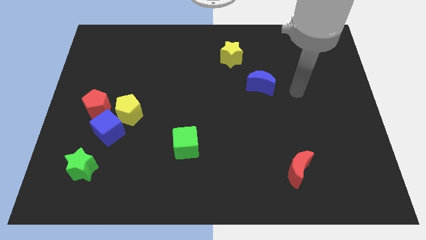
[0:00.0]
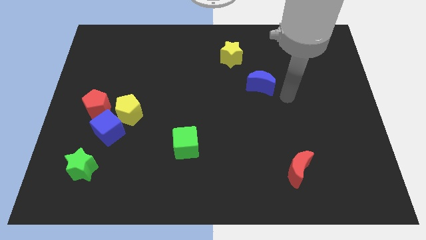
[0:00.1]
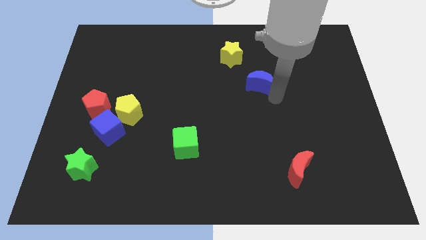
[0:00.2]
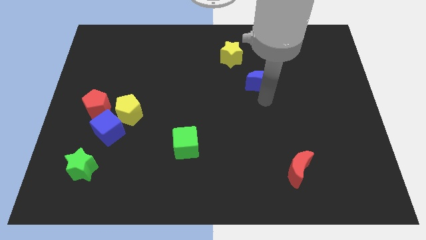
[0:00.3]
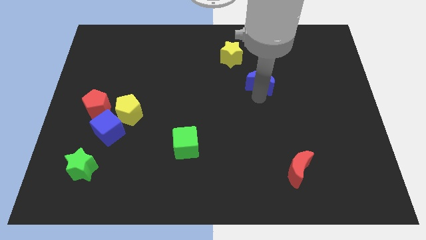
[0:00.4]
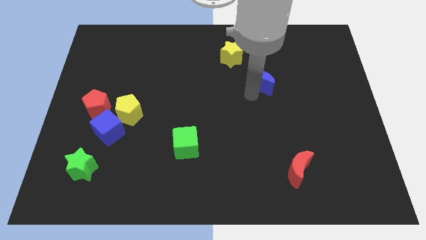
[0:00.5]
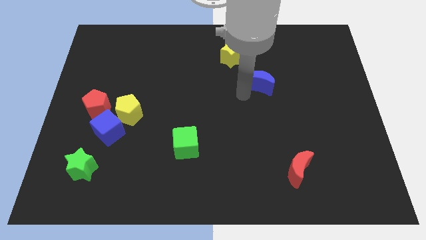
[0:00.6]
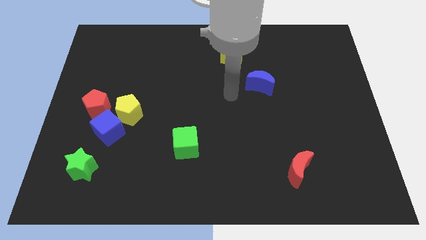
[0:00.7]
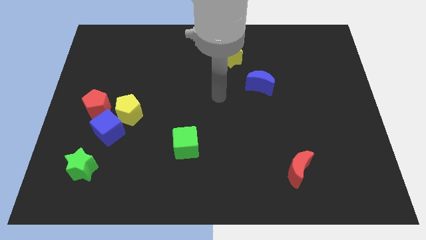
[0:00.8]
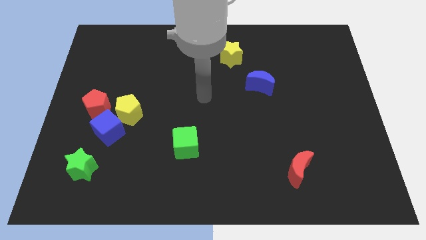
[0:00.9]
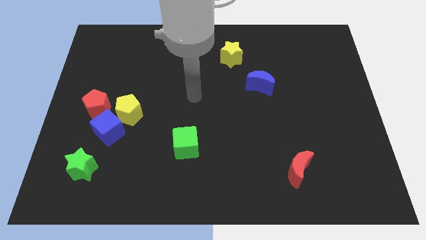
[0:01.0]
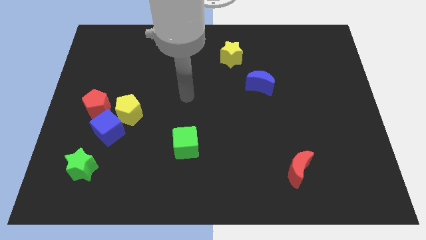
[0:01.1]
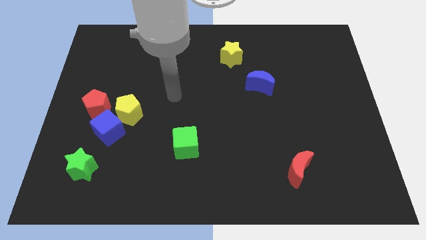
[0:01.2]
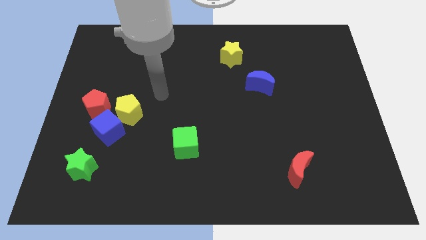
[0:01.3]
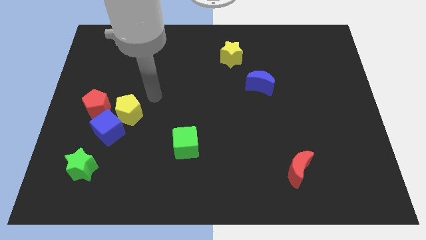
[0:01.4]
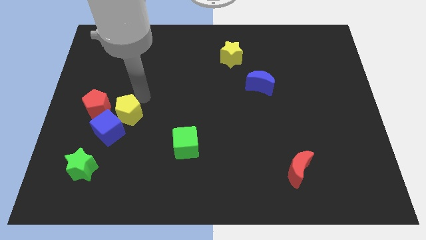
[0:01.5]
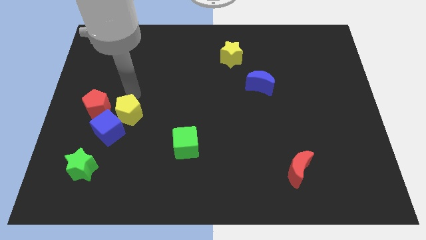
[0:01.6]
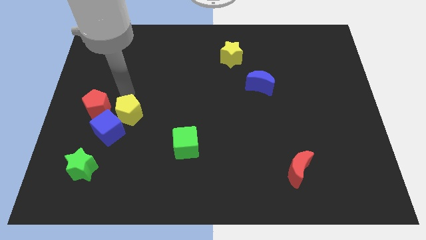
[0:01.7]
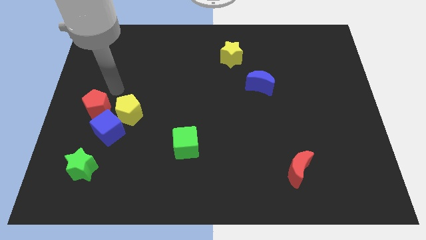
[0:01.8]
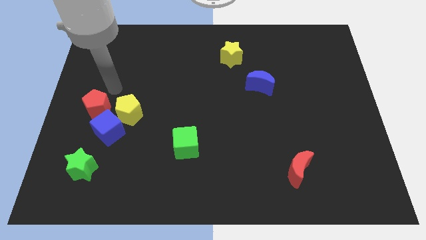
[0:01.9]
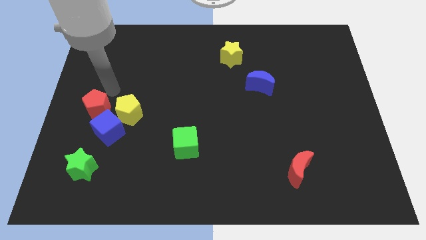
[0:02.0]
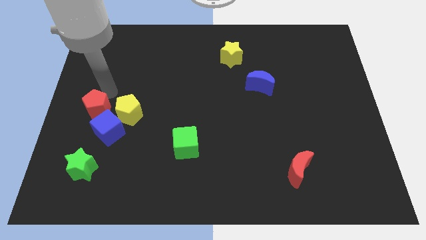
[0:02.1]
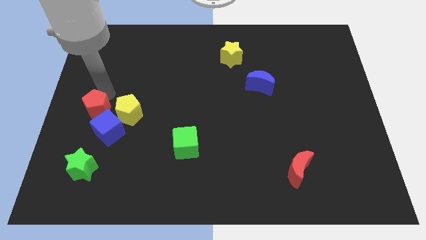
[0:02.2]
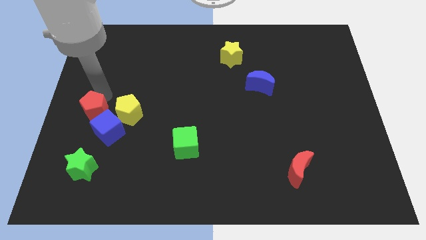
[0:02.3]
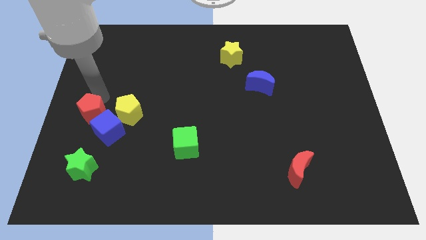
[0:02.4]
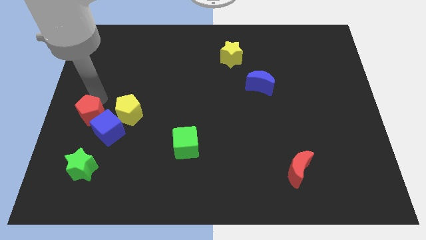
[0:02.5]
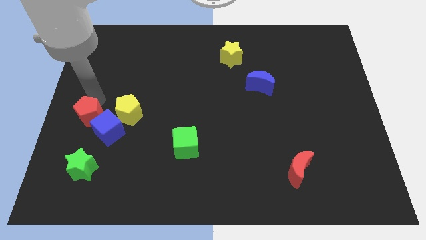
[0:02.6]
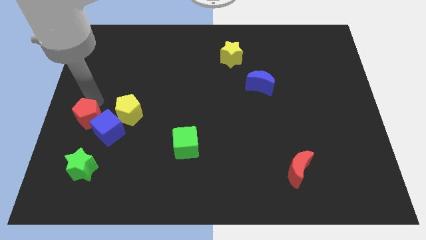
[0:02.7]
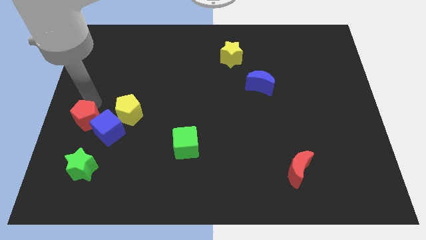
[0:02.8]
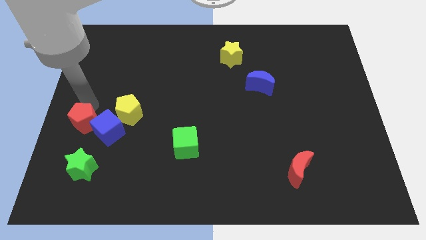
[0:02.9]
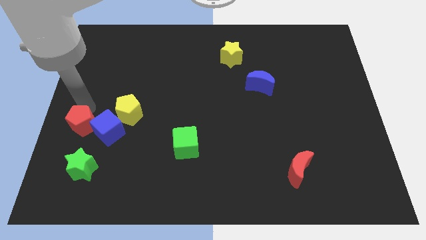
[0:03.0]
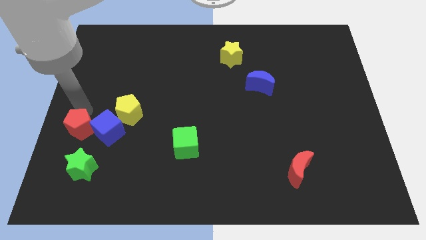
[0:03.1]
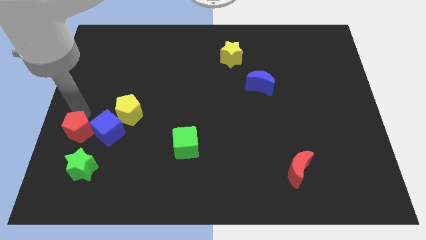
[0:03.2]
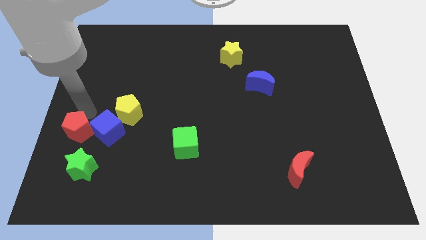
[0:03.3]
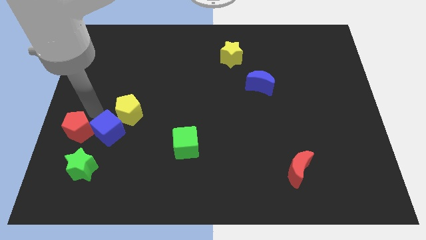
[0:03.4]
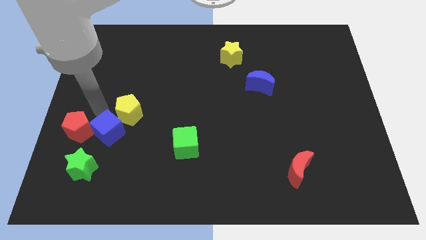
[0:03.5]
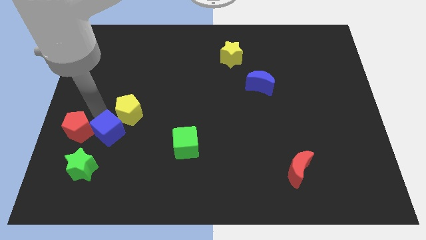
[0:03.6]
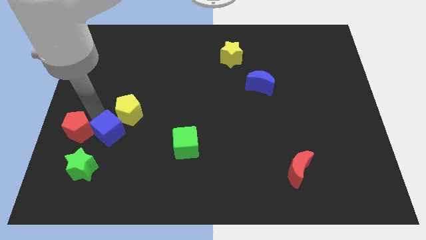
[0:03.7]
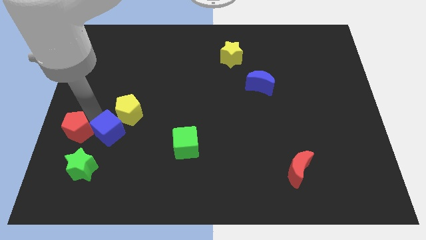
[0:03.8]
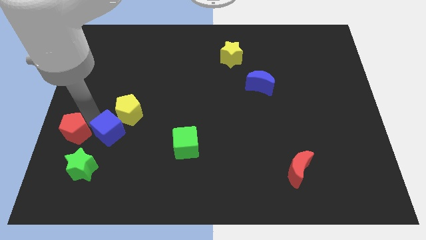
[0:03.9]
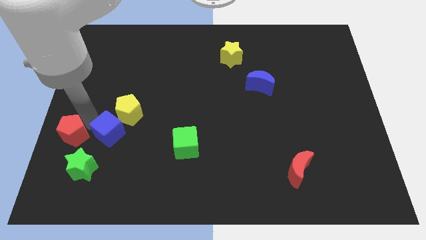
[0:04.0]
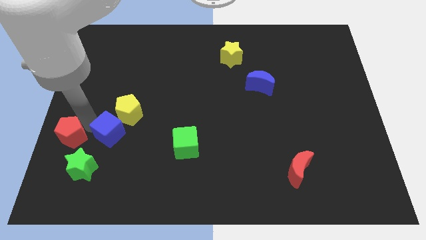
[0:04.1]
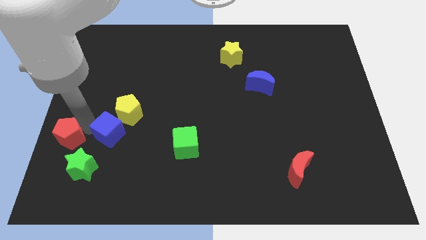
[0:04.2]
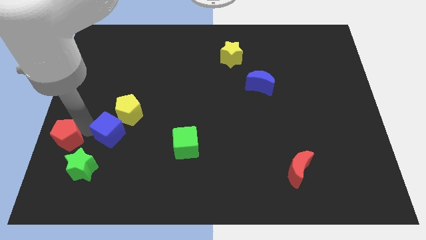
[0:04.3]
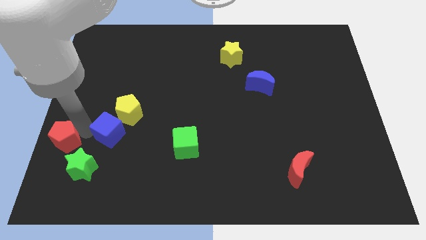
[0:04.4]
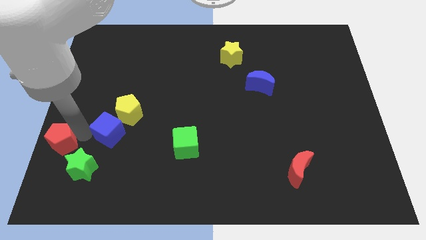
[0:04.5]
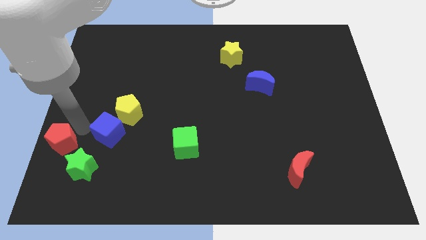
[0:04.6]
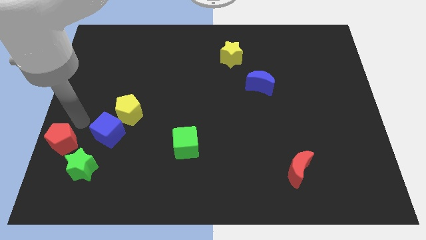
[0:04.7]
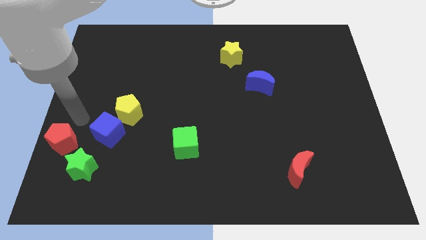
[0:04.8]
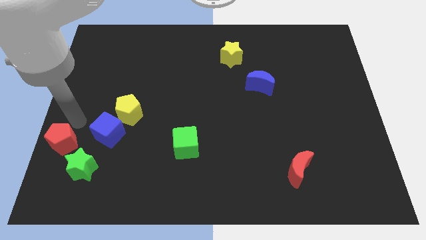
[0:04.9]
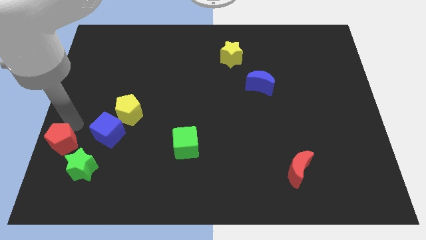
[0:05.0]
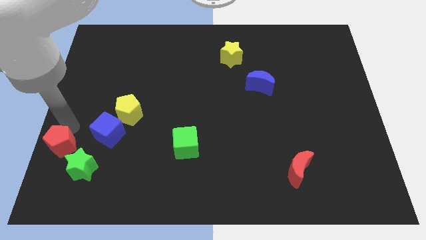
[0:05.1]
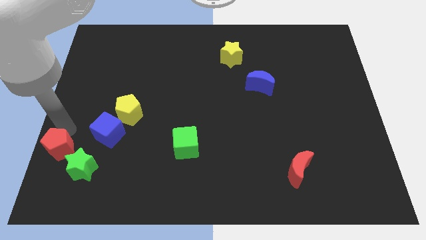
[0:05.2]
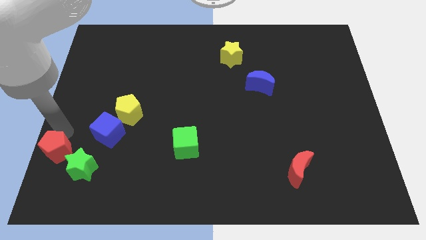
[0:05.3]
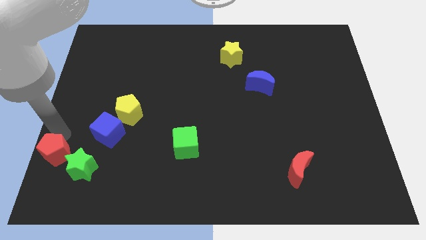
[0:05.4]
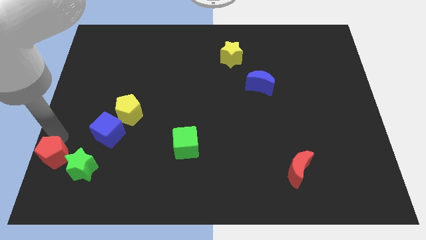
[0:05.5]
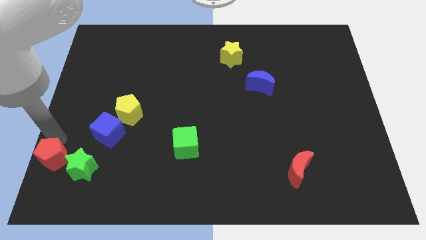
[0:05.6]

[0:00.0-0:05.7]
move the red pentagon to the bottom left corner
